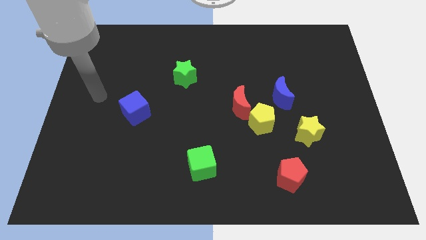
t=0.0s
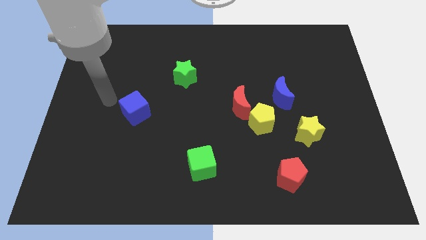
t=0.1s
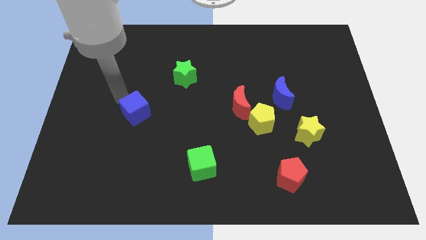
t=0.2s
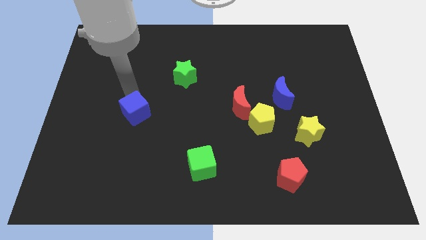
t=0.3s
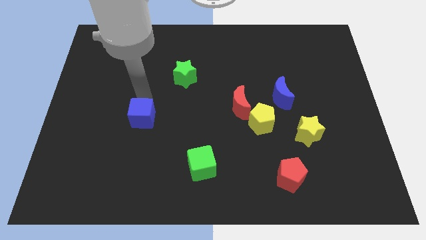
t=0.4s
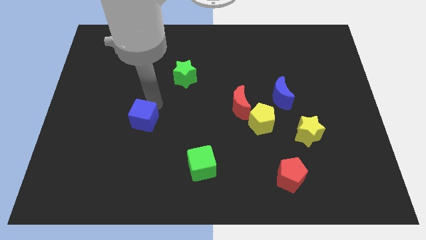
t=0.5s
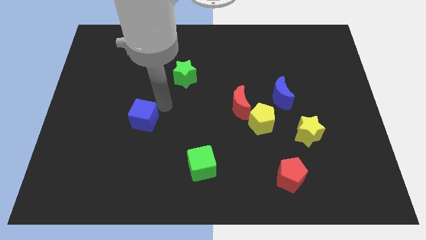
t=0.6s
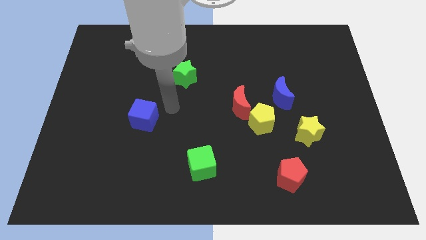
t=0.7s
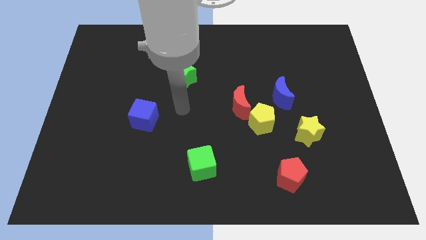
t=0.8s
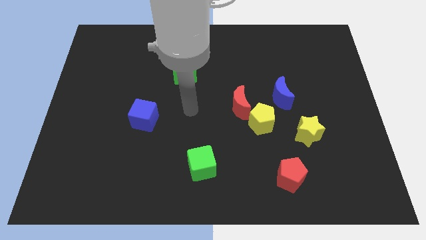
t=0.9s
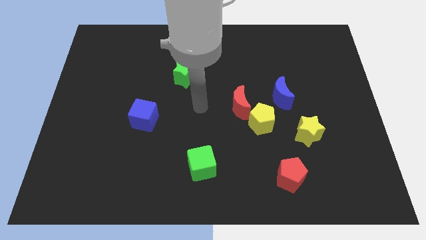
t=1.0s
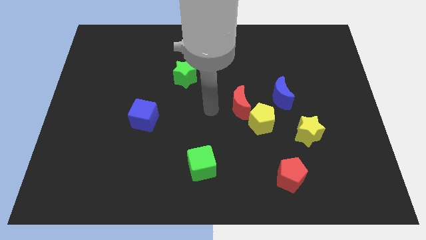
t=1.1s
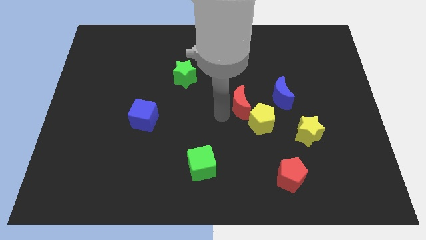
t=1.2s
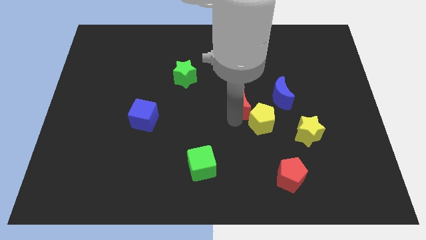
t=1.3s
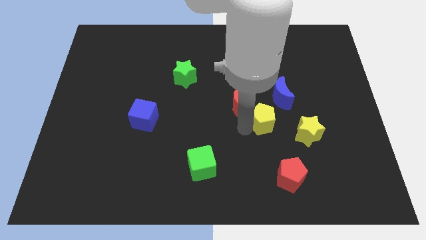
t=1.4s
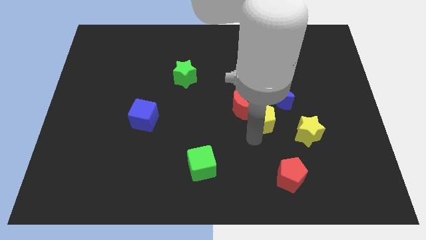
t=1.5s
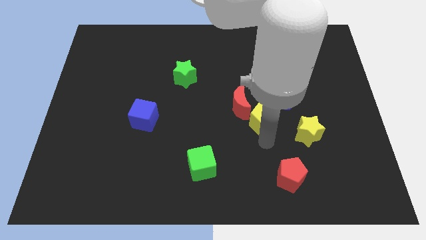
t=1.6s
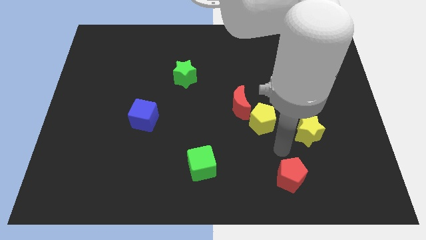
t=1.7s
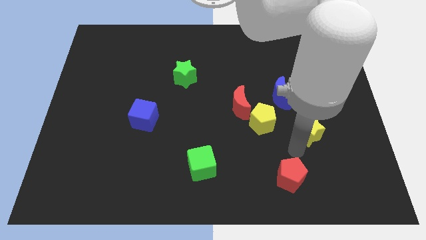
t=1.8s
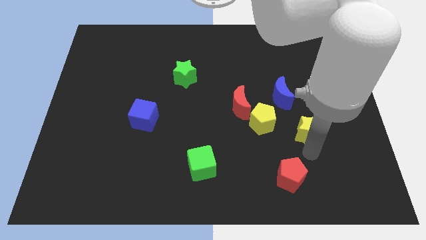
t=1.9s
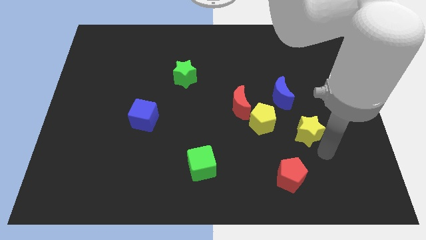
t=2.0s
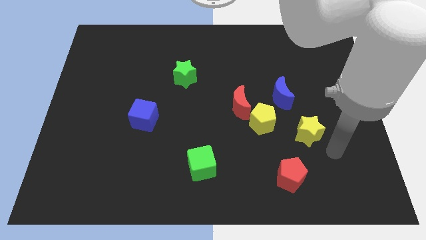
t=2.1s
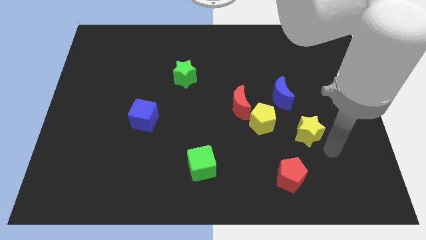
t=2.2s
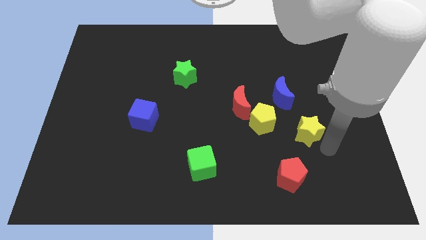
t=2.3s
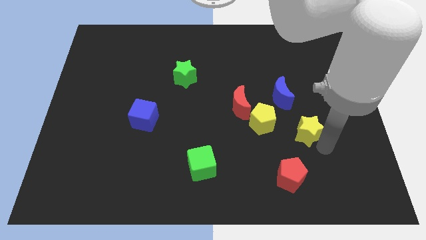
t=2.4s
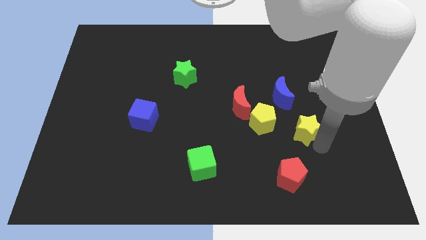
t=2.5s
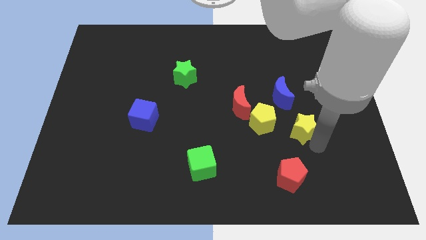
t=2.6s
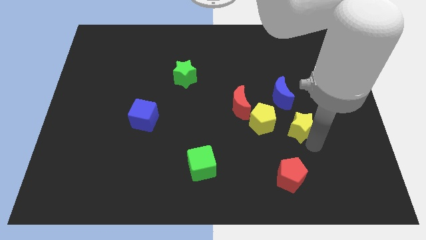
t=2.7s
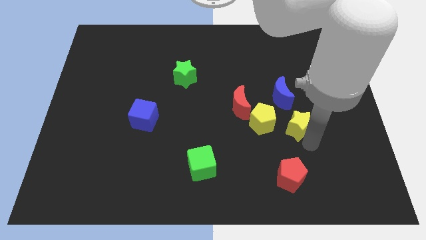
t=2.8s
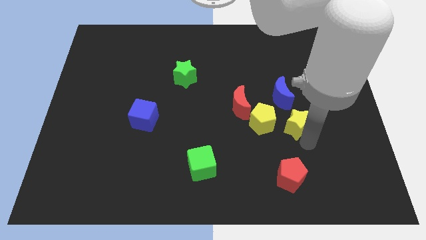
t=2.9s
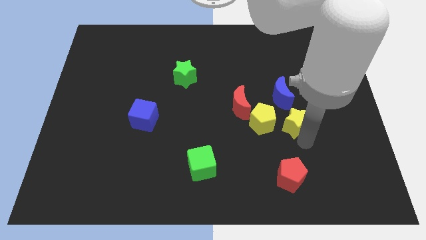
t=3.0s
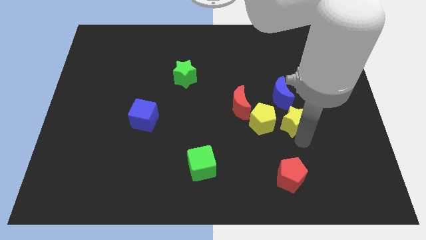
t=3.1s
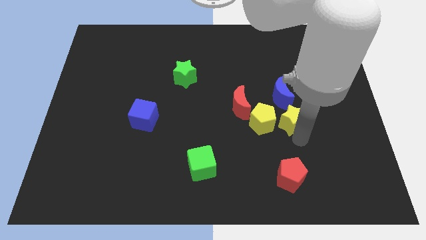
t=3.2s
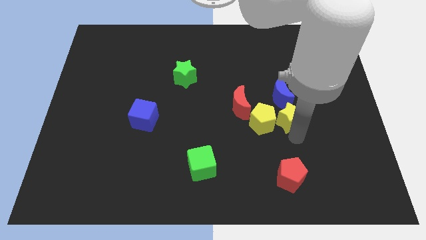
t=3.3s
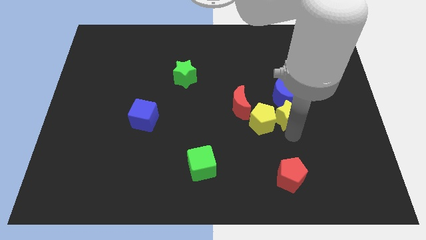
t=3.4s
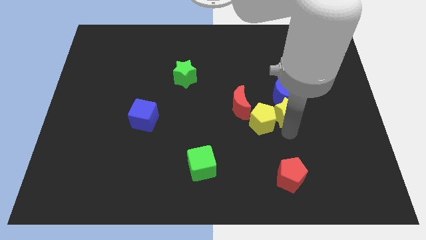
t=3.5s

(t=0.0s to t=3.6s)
slide the yellow star slightly up and left

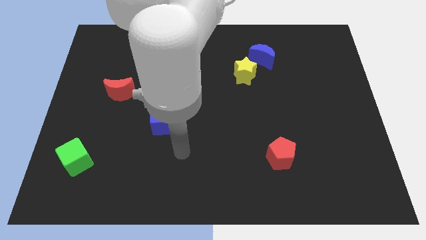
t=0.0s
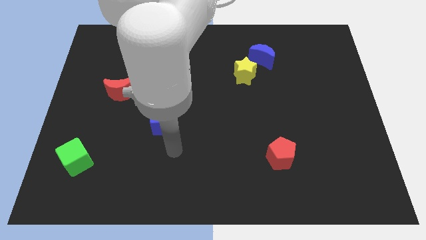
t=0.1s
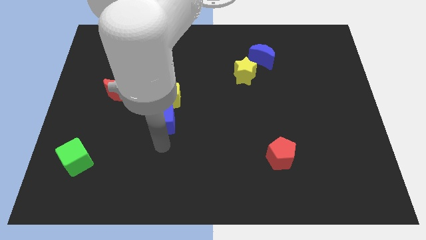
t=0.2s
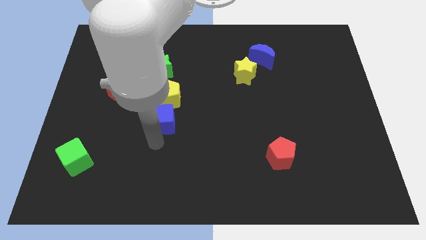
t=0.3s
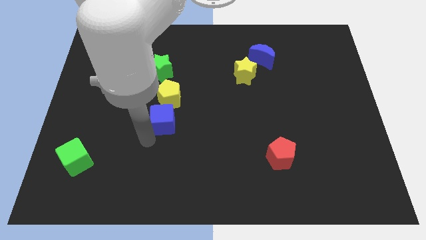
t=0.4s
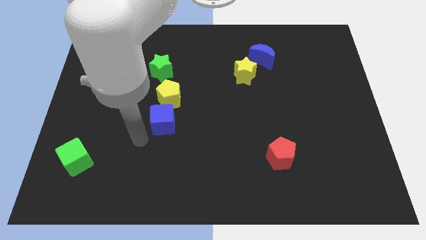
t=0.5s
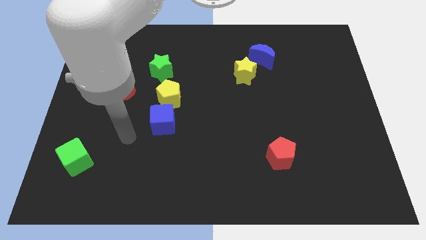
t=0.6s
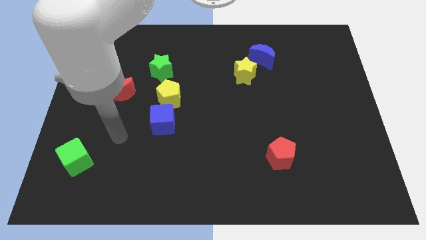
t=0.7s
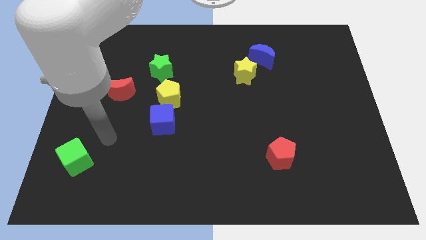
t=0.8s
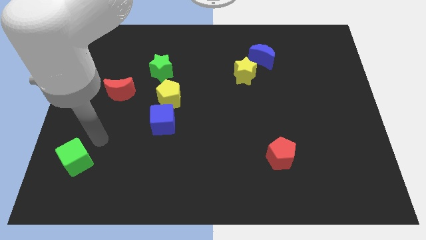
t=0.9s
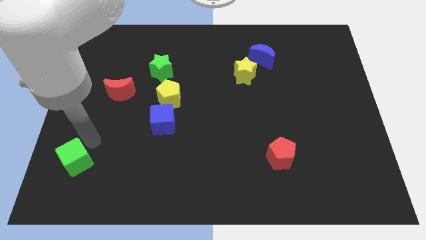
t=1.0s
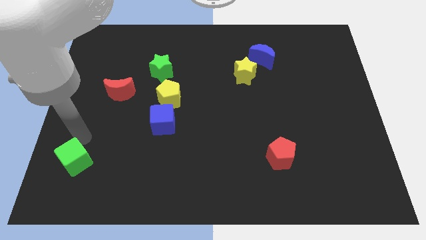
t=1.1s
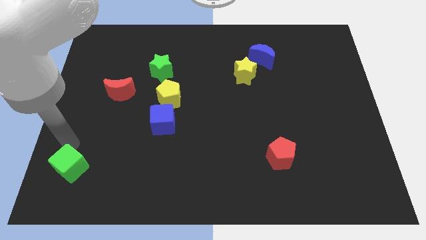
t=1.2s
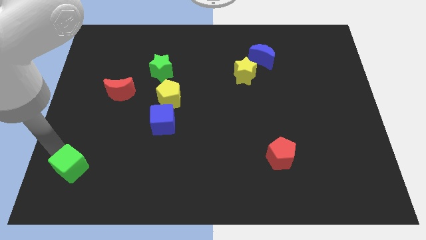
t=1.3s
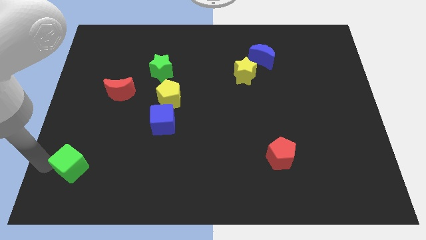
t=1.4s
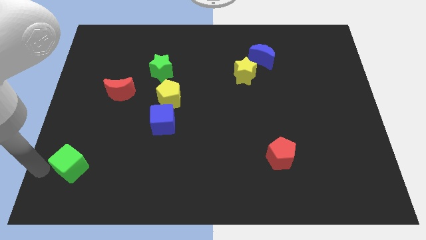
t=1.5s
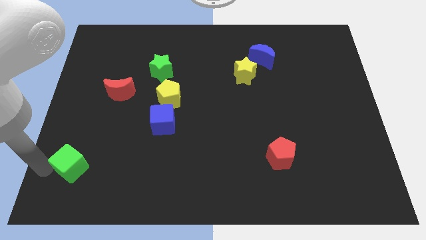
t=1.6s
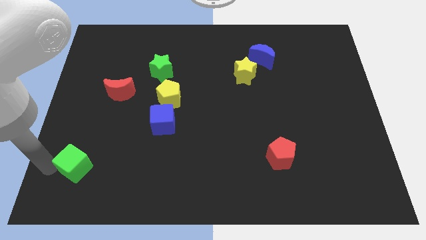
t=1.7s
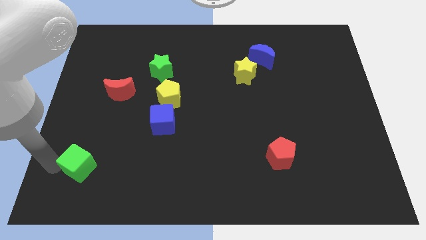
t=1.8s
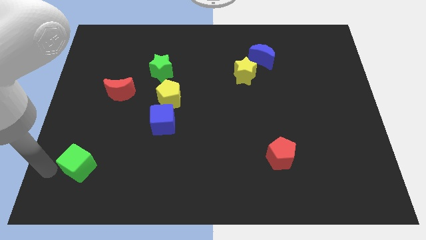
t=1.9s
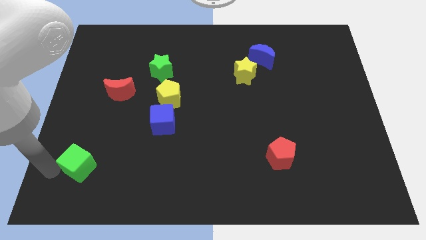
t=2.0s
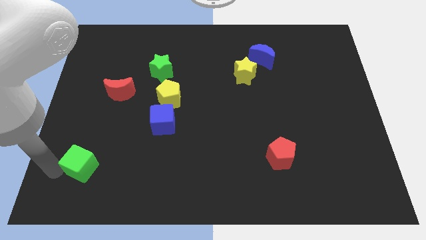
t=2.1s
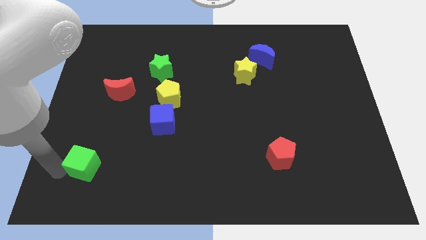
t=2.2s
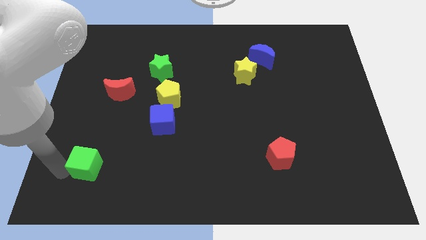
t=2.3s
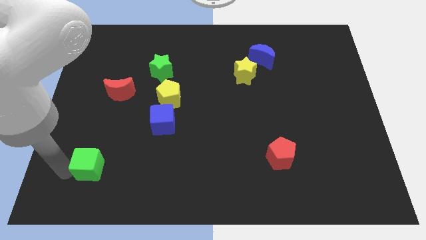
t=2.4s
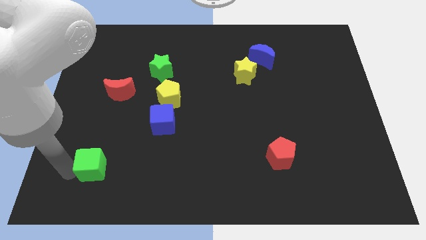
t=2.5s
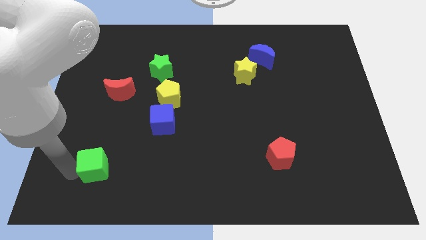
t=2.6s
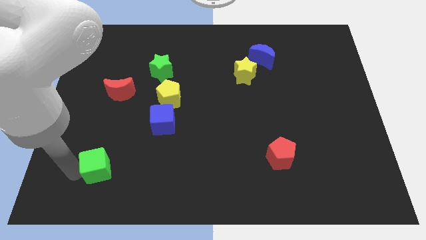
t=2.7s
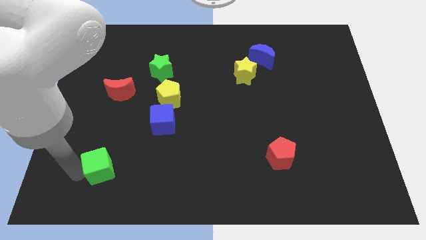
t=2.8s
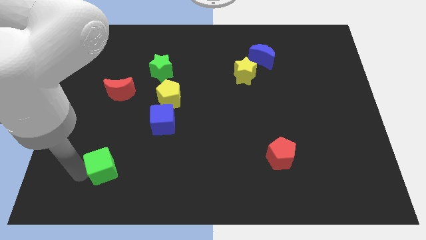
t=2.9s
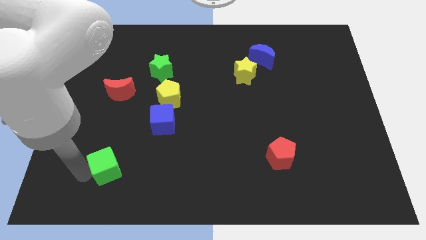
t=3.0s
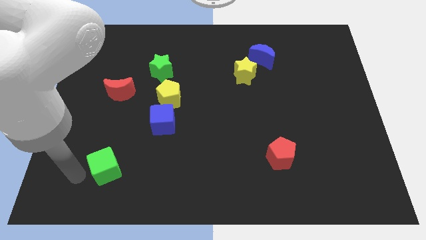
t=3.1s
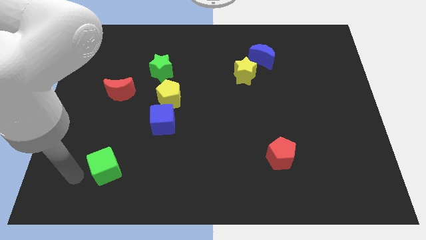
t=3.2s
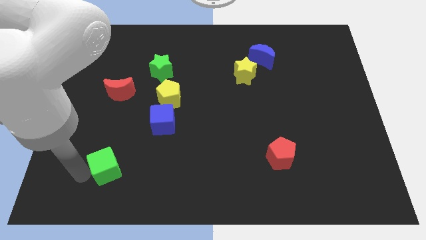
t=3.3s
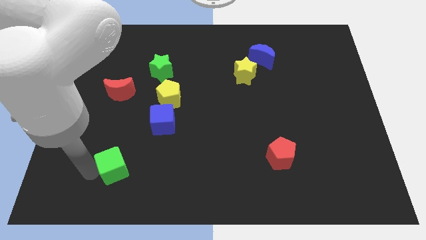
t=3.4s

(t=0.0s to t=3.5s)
slide the green cube a little to the right

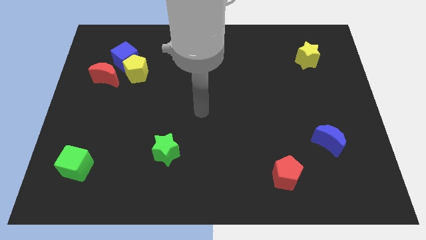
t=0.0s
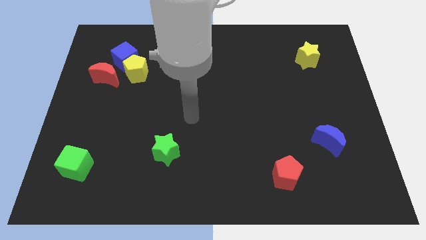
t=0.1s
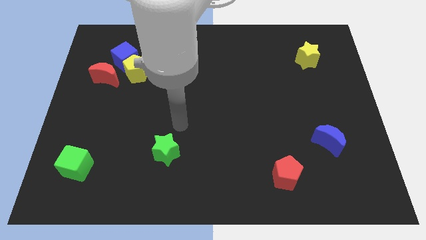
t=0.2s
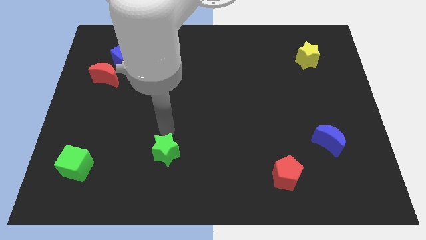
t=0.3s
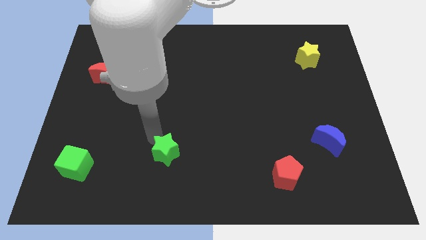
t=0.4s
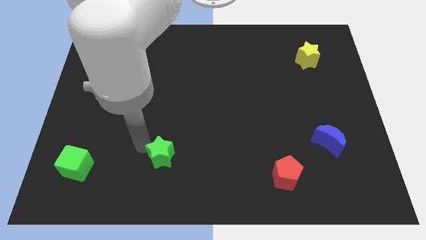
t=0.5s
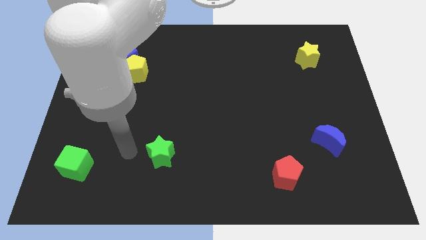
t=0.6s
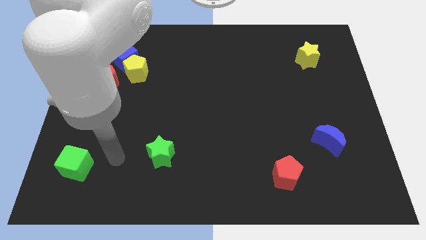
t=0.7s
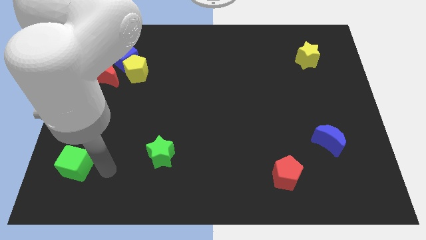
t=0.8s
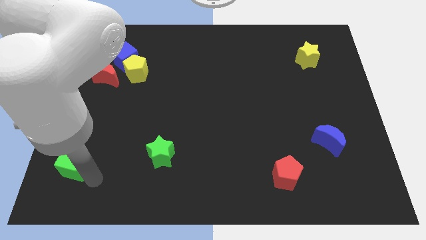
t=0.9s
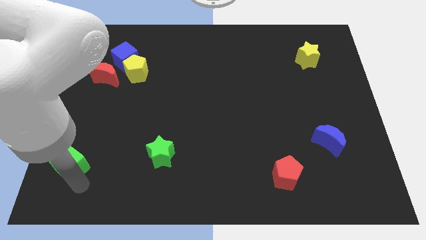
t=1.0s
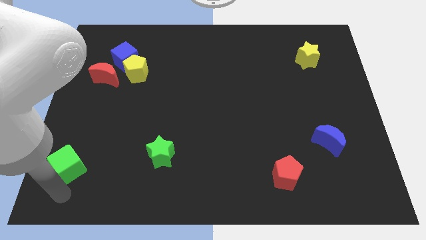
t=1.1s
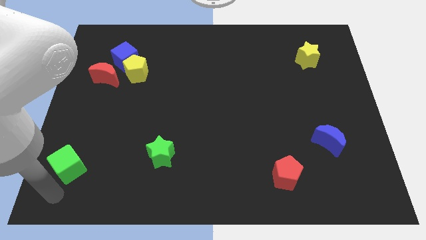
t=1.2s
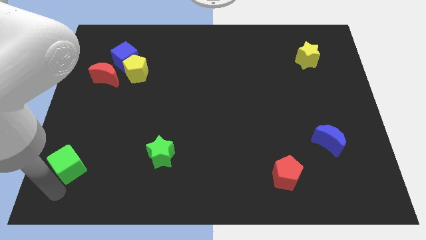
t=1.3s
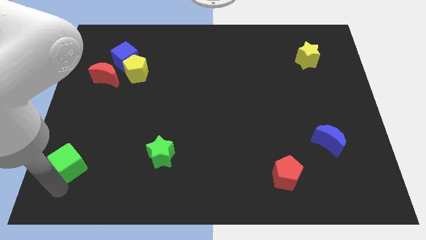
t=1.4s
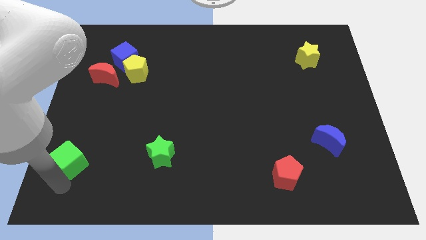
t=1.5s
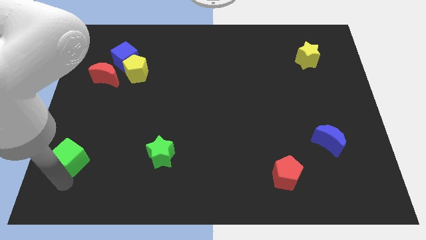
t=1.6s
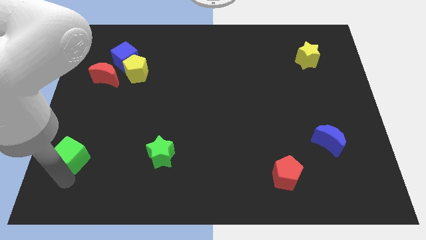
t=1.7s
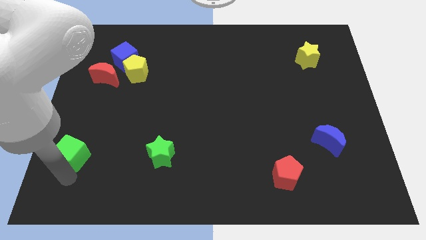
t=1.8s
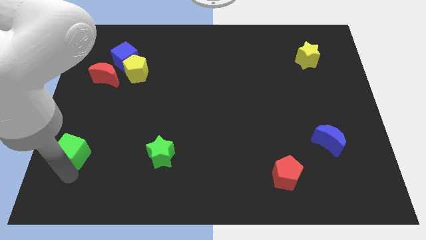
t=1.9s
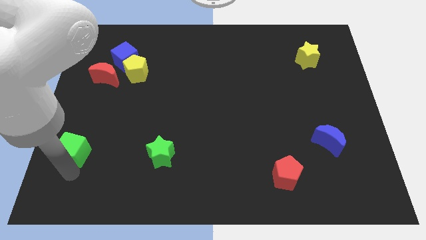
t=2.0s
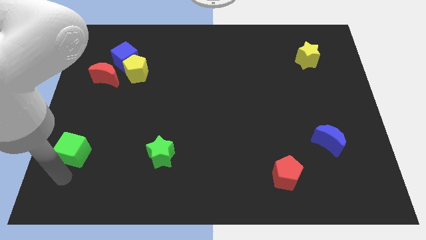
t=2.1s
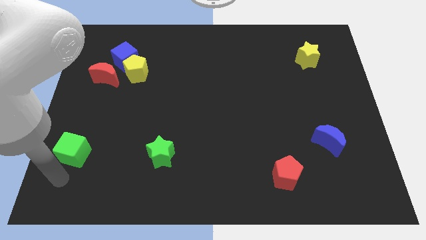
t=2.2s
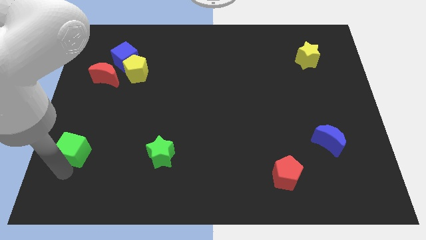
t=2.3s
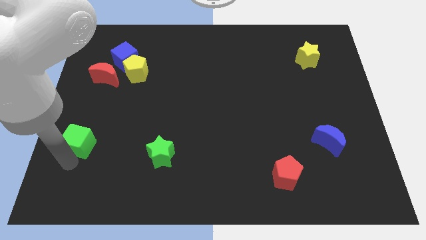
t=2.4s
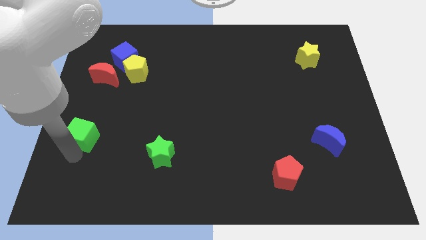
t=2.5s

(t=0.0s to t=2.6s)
push the green cube slightly up
